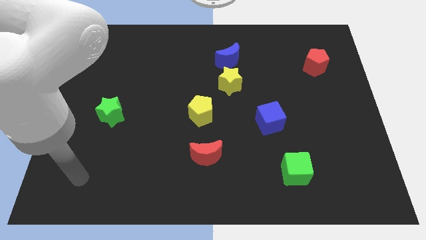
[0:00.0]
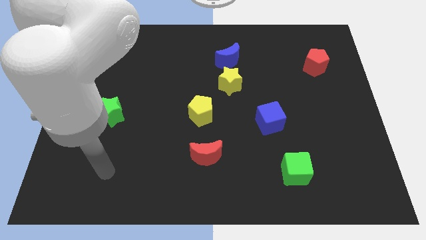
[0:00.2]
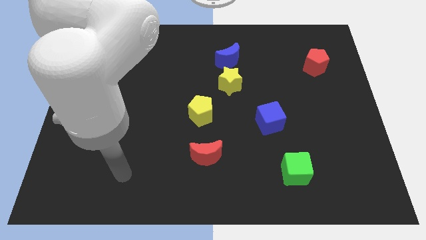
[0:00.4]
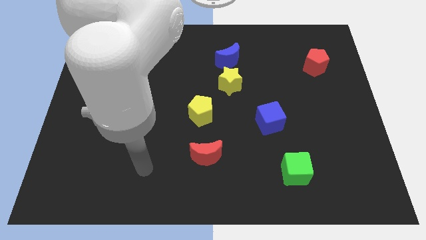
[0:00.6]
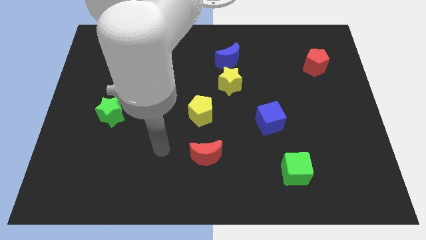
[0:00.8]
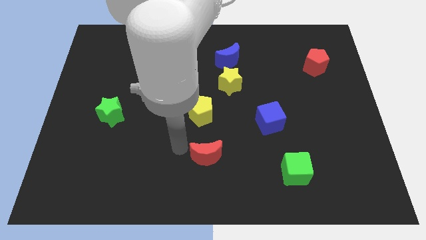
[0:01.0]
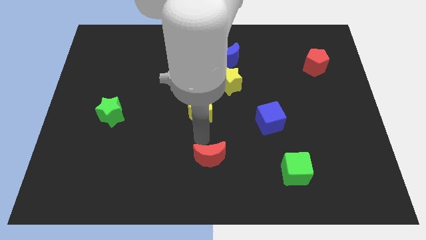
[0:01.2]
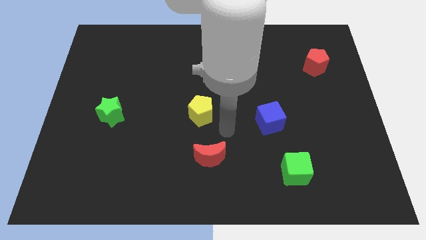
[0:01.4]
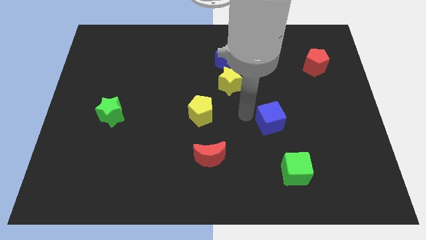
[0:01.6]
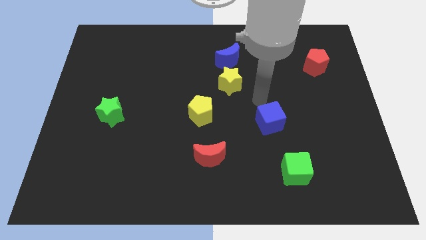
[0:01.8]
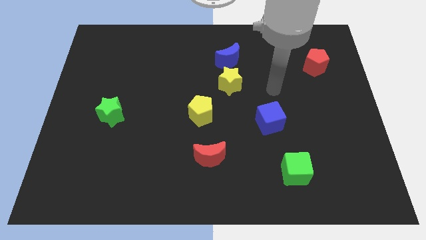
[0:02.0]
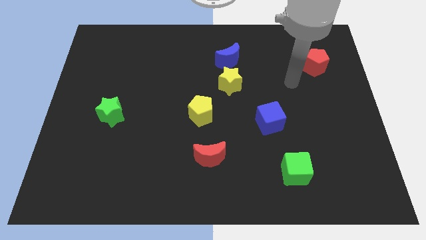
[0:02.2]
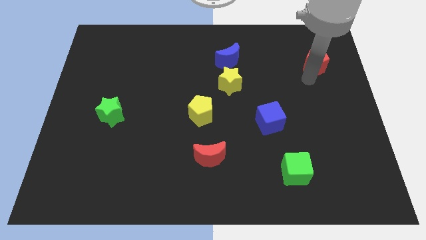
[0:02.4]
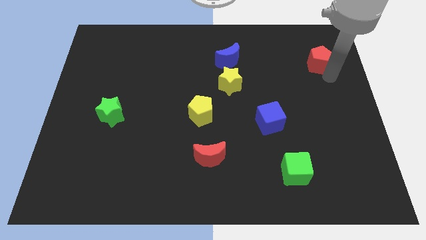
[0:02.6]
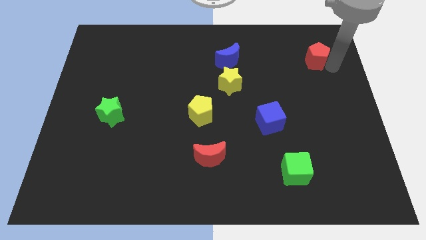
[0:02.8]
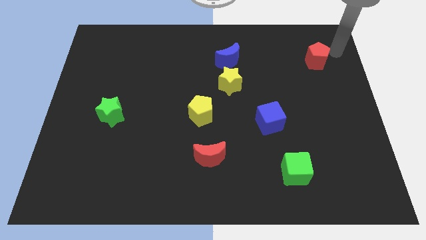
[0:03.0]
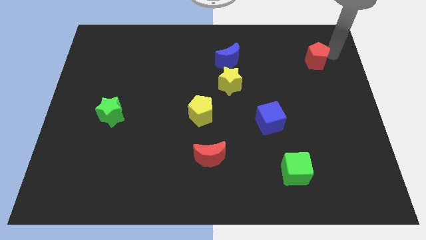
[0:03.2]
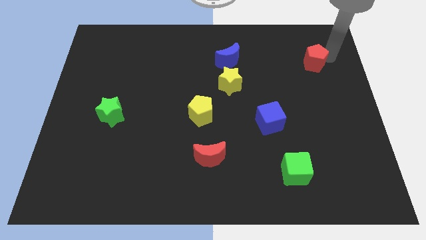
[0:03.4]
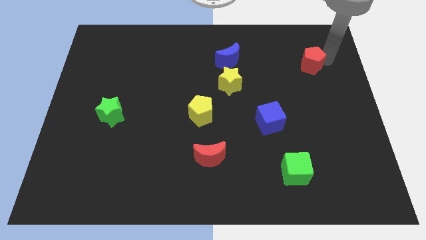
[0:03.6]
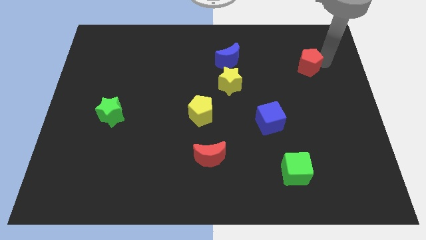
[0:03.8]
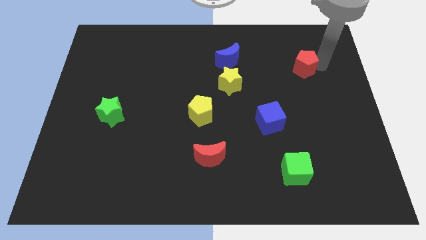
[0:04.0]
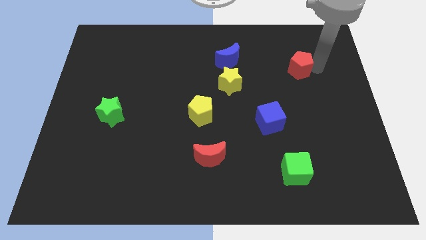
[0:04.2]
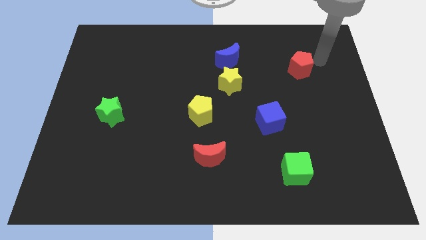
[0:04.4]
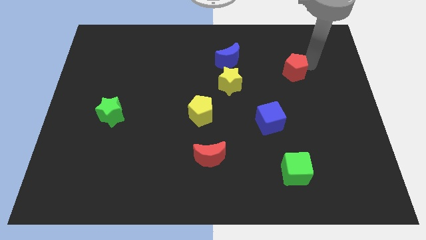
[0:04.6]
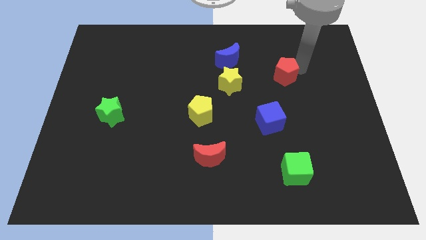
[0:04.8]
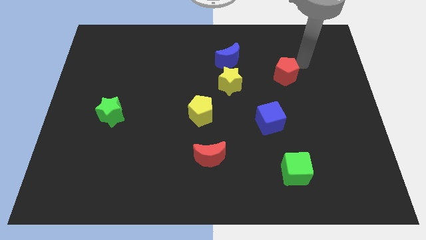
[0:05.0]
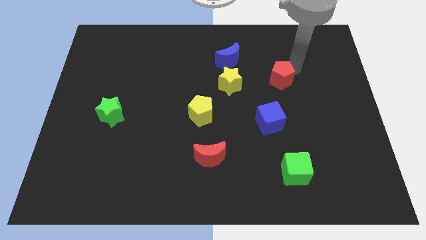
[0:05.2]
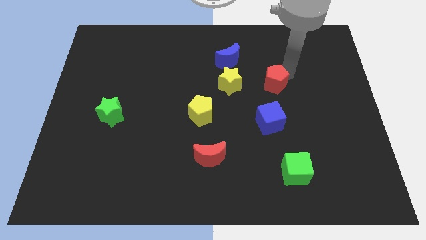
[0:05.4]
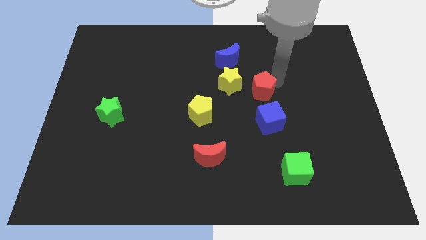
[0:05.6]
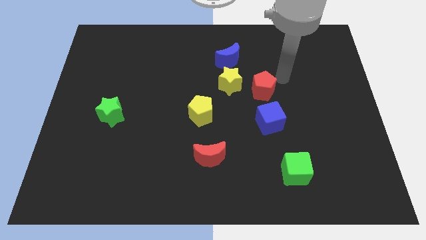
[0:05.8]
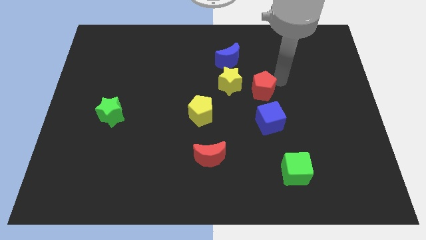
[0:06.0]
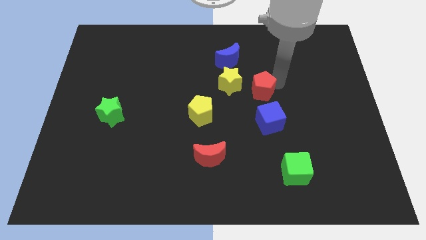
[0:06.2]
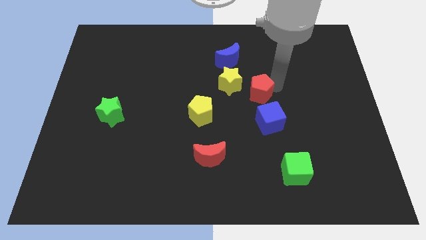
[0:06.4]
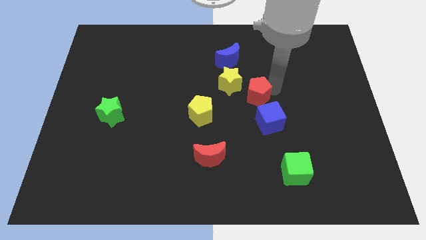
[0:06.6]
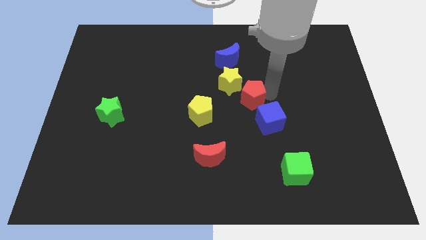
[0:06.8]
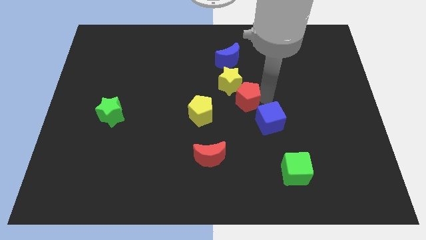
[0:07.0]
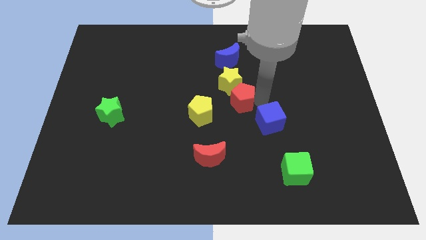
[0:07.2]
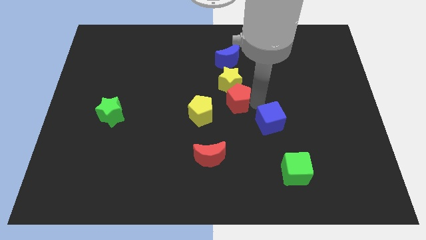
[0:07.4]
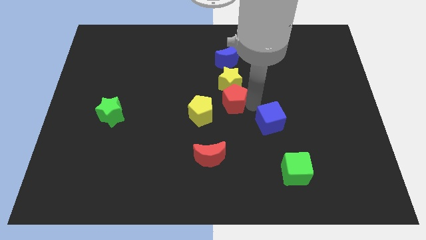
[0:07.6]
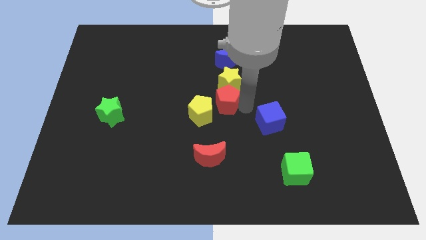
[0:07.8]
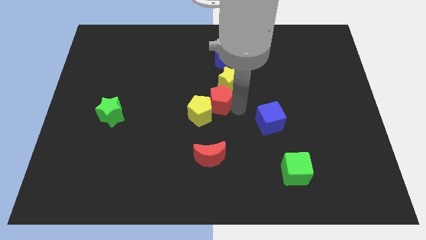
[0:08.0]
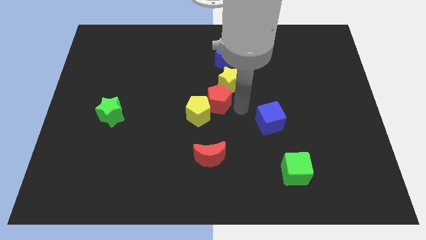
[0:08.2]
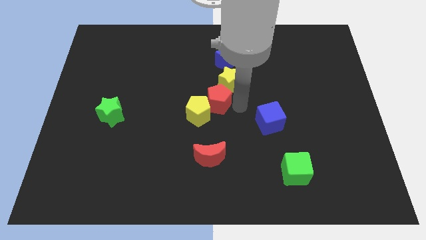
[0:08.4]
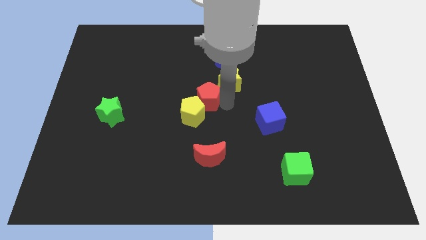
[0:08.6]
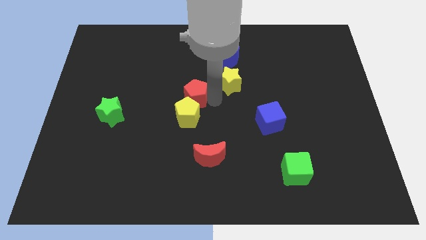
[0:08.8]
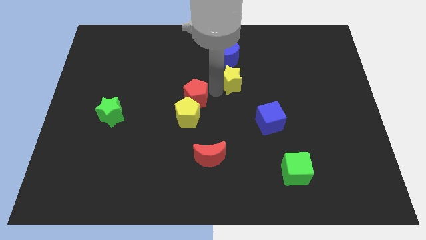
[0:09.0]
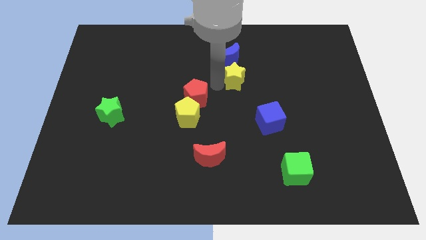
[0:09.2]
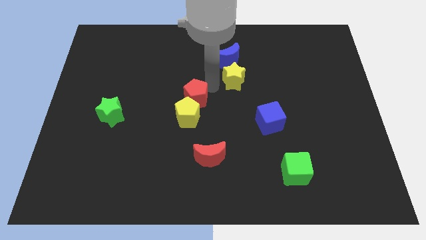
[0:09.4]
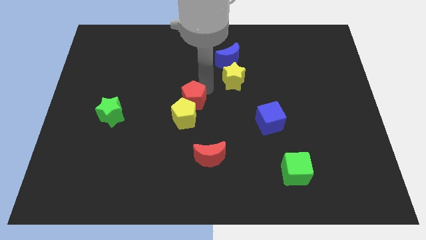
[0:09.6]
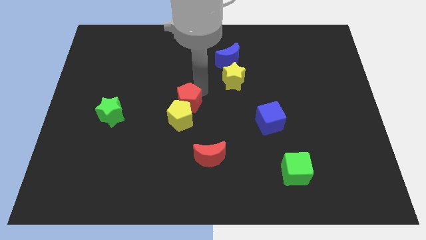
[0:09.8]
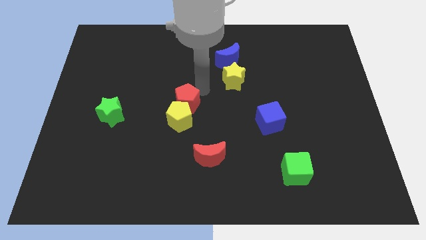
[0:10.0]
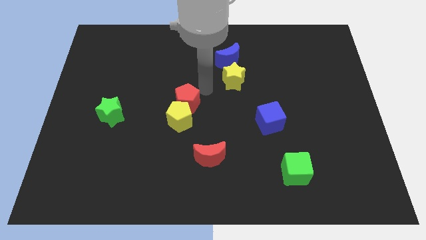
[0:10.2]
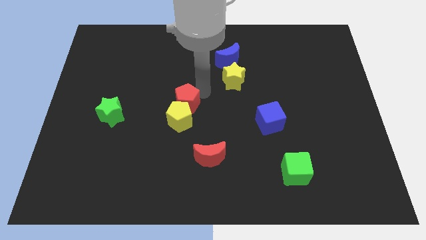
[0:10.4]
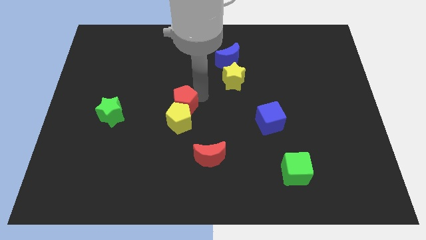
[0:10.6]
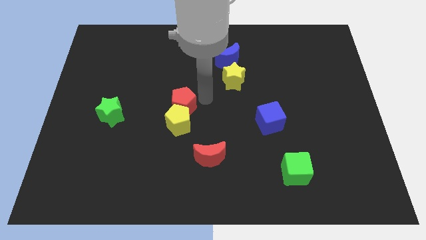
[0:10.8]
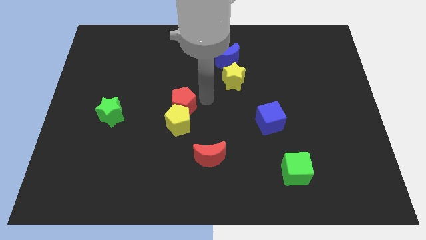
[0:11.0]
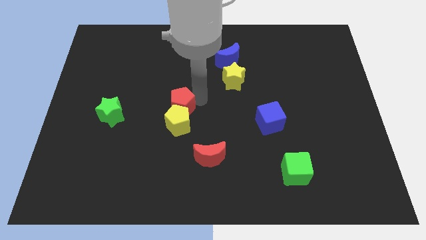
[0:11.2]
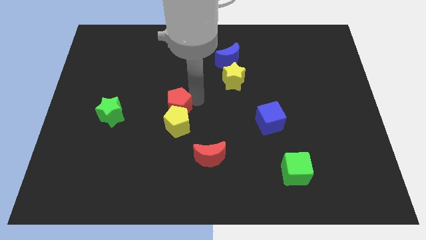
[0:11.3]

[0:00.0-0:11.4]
slide the red pentagon right of the green star

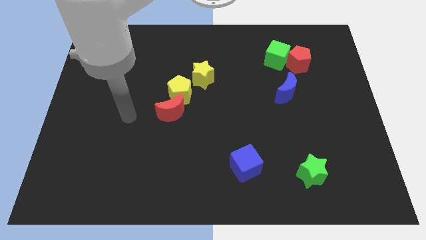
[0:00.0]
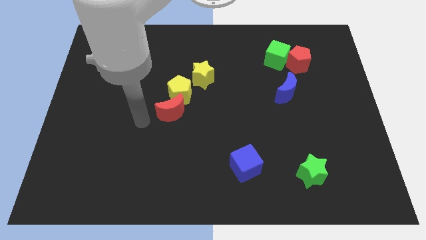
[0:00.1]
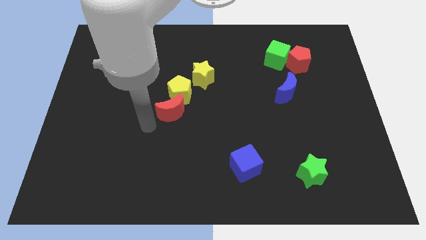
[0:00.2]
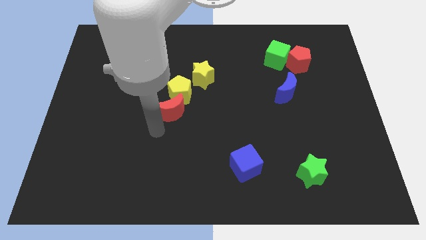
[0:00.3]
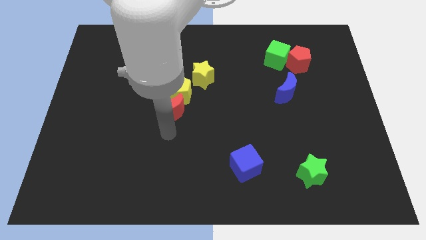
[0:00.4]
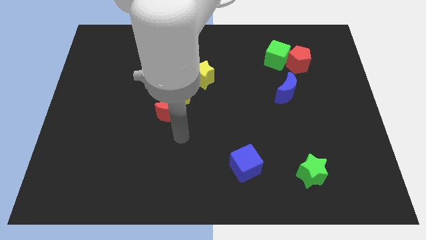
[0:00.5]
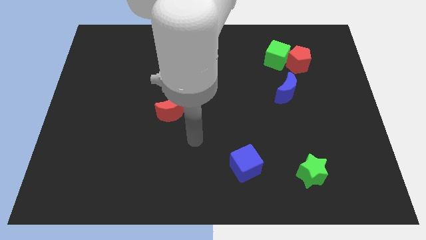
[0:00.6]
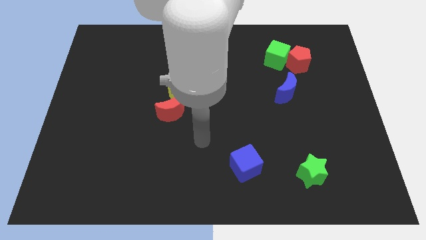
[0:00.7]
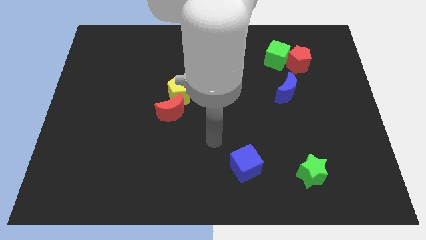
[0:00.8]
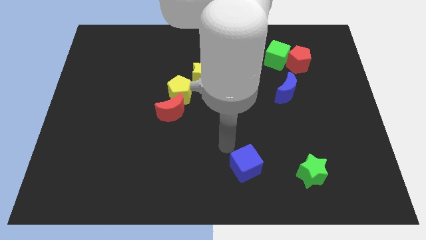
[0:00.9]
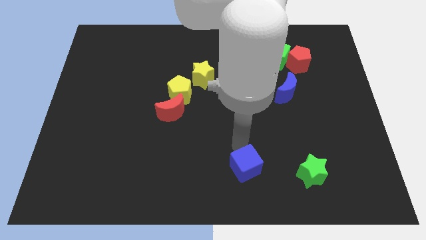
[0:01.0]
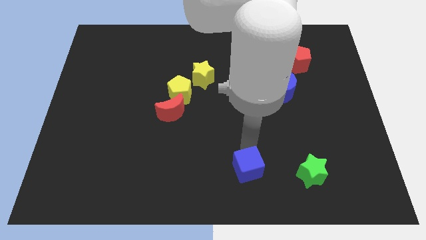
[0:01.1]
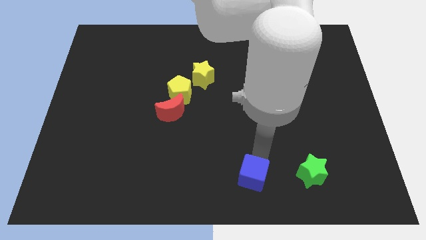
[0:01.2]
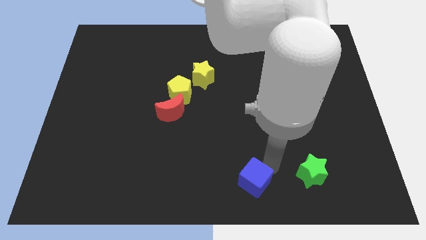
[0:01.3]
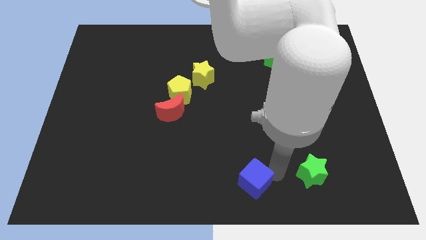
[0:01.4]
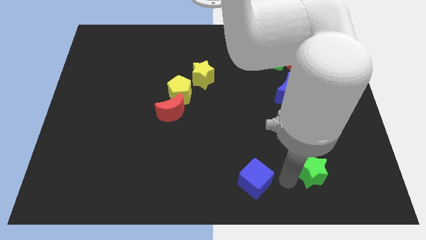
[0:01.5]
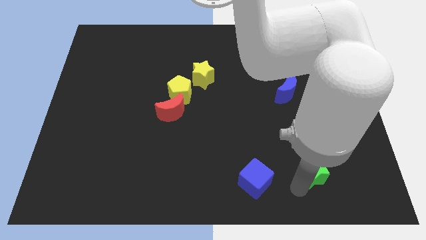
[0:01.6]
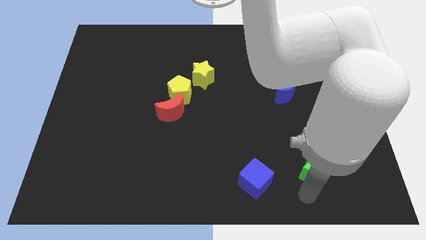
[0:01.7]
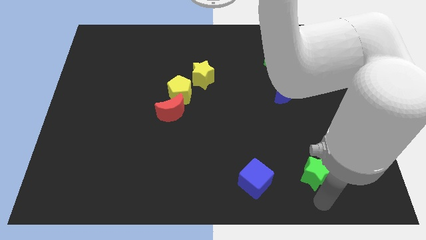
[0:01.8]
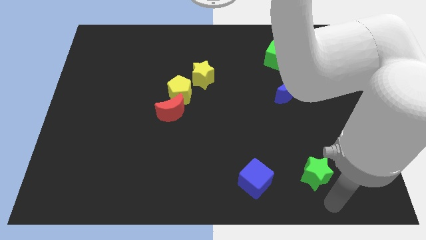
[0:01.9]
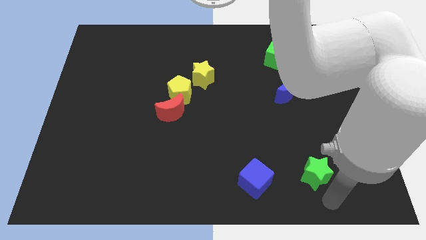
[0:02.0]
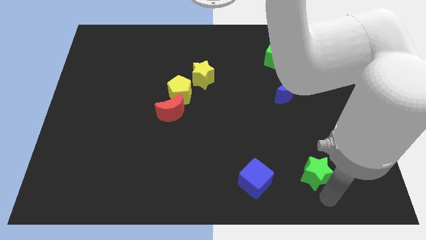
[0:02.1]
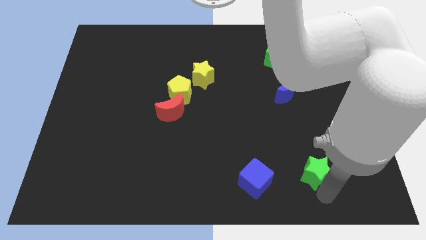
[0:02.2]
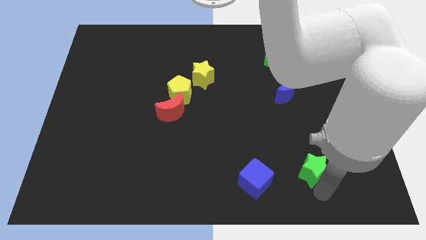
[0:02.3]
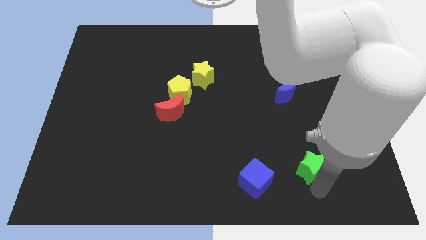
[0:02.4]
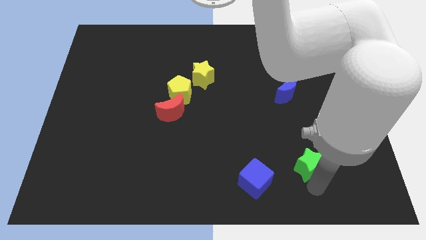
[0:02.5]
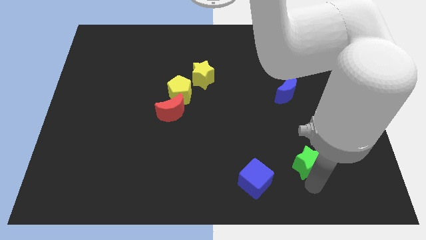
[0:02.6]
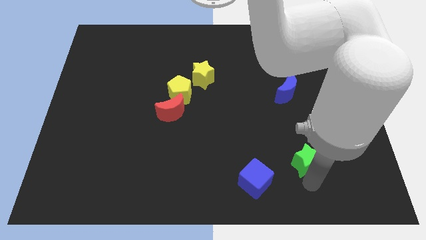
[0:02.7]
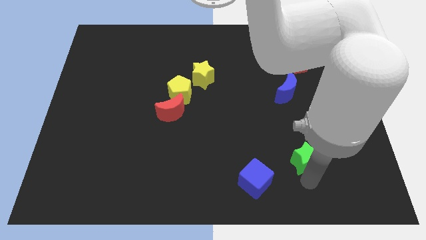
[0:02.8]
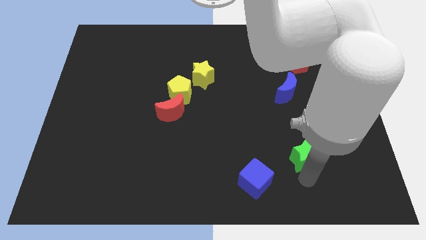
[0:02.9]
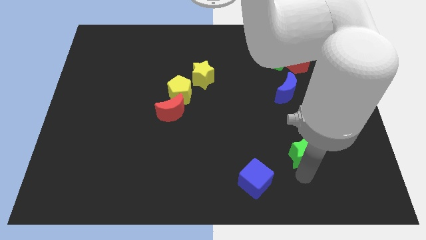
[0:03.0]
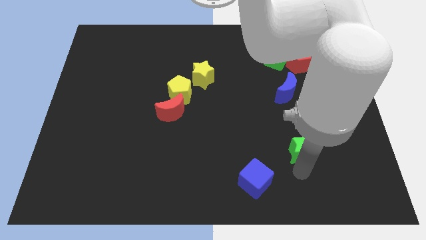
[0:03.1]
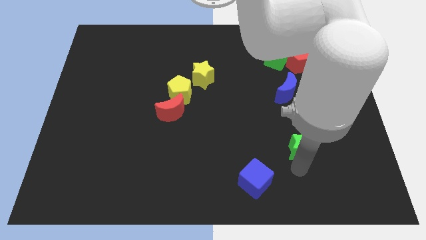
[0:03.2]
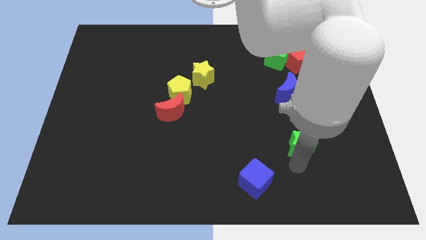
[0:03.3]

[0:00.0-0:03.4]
move the green star below the blue moon
